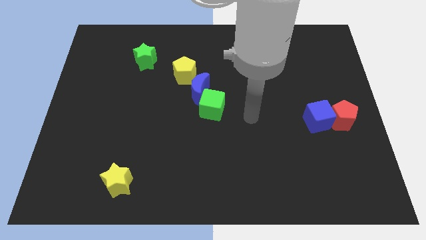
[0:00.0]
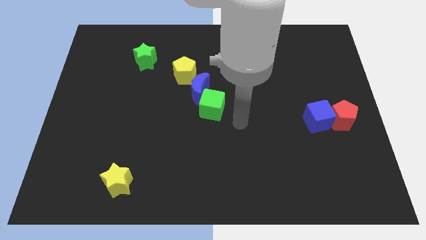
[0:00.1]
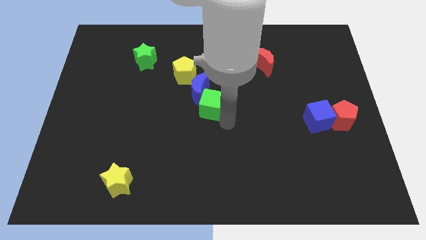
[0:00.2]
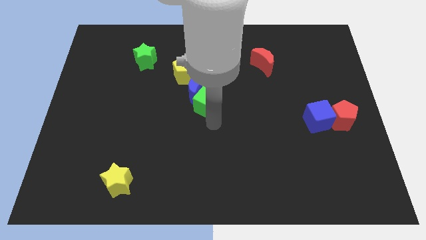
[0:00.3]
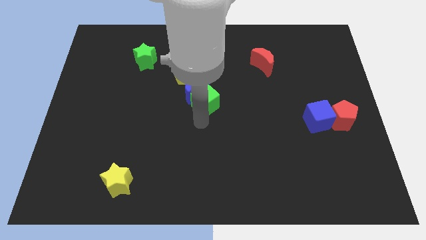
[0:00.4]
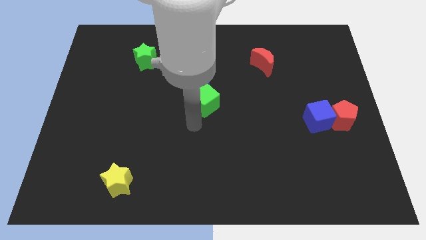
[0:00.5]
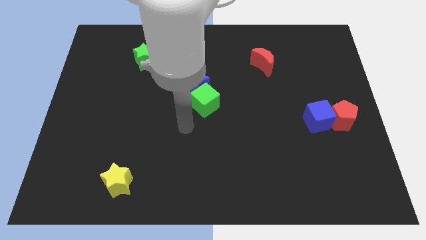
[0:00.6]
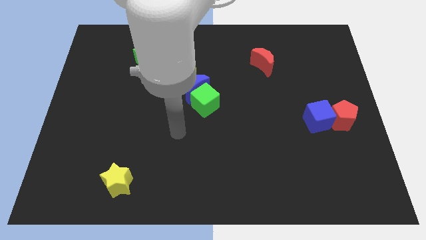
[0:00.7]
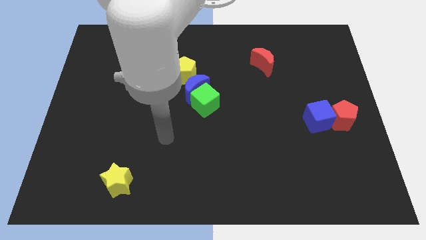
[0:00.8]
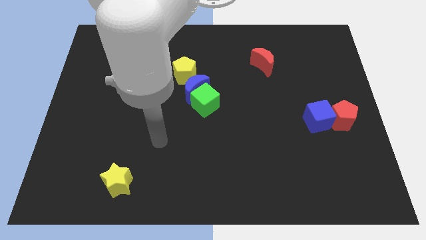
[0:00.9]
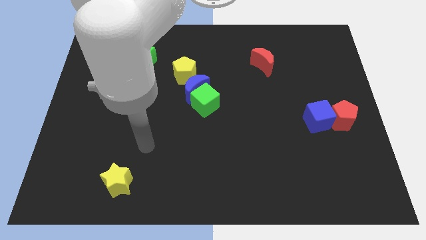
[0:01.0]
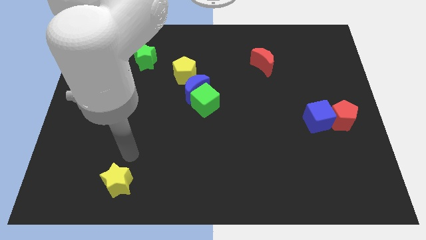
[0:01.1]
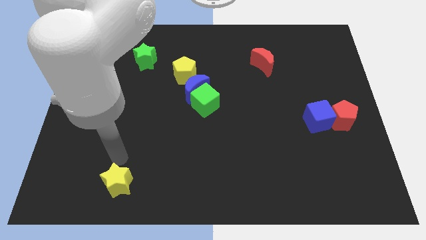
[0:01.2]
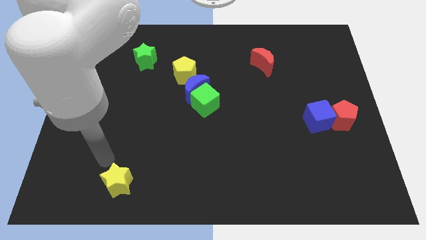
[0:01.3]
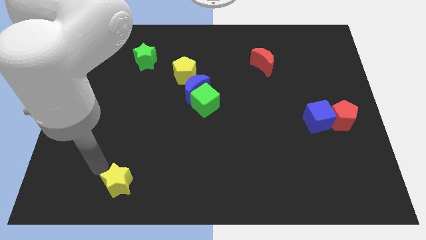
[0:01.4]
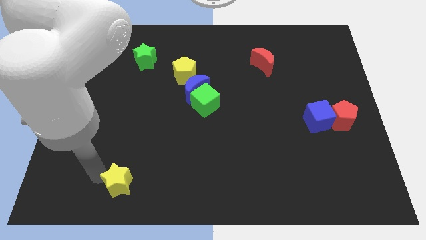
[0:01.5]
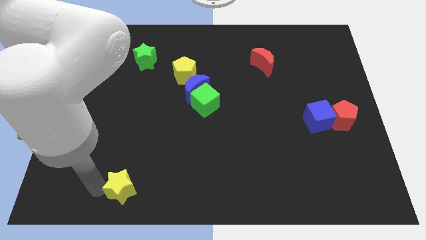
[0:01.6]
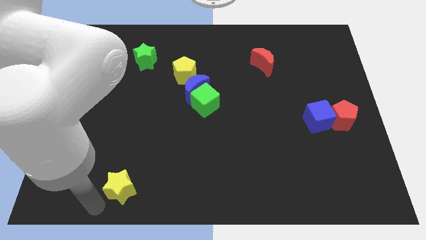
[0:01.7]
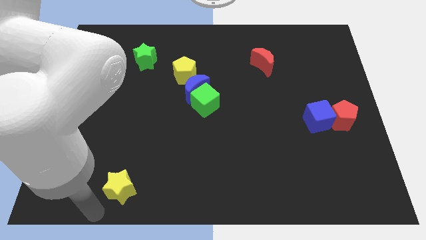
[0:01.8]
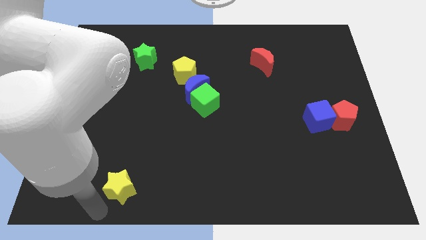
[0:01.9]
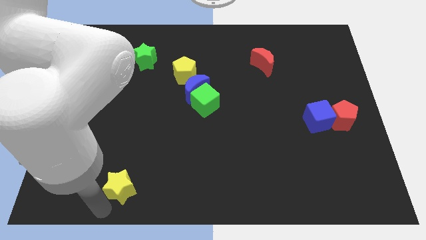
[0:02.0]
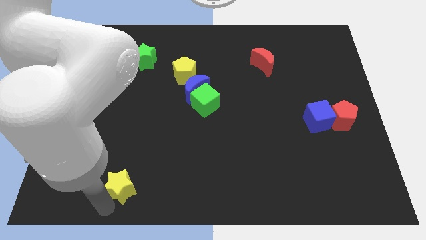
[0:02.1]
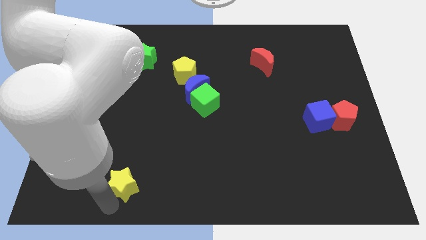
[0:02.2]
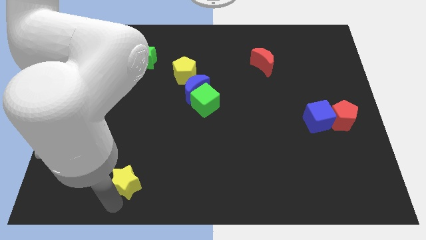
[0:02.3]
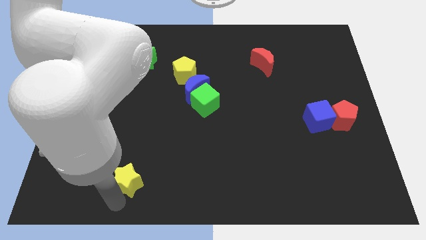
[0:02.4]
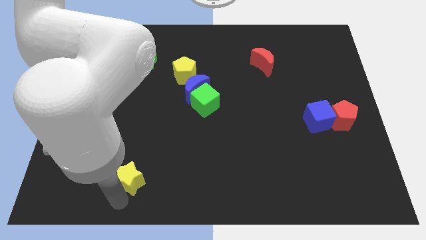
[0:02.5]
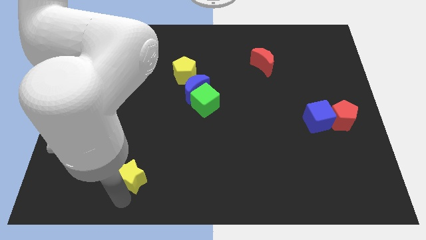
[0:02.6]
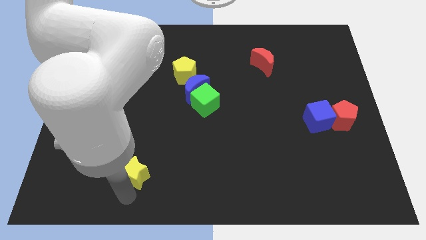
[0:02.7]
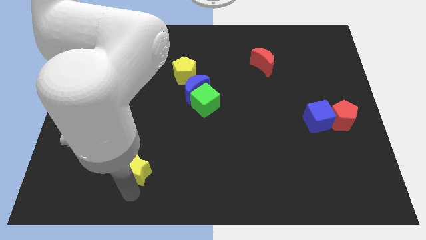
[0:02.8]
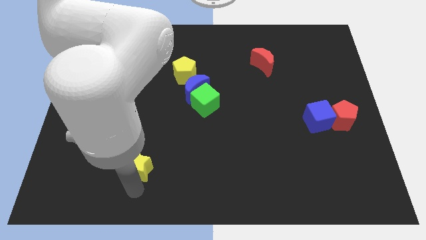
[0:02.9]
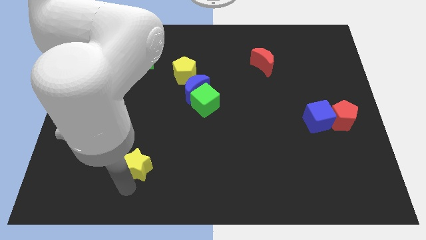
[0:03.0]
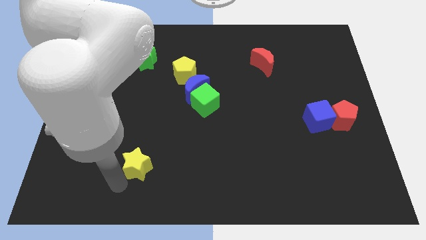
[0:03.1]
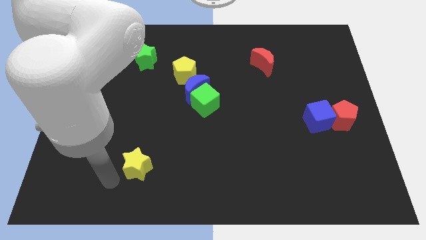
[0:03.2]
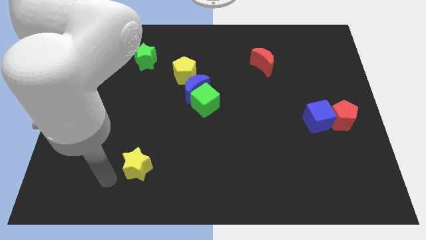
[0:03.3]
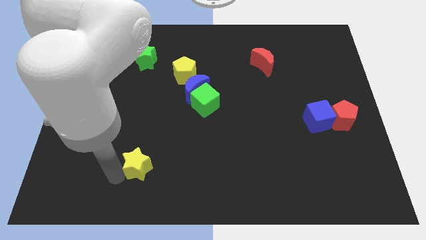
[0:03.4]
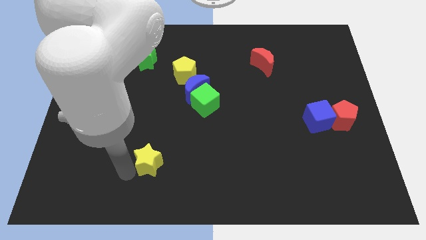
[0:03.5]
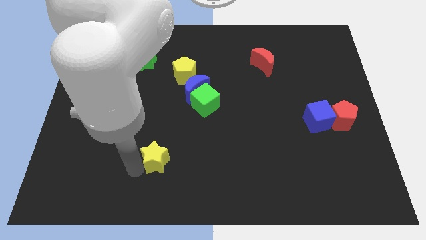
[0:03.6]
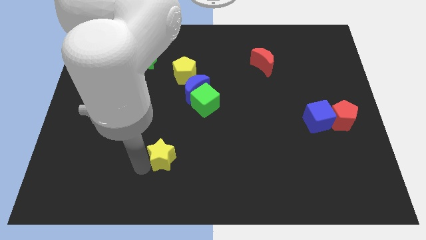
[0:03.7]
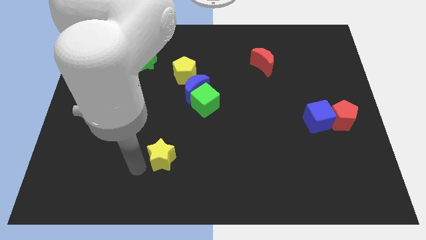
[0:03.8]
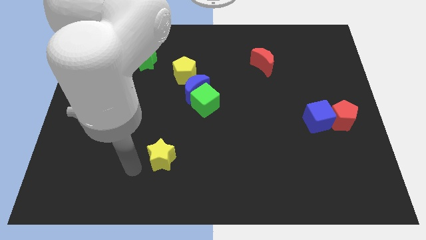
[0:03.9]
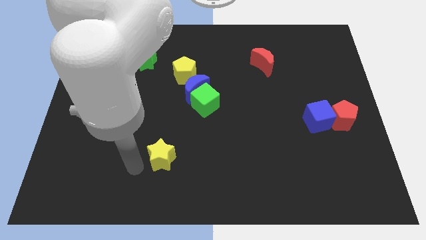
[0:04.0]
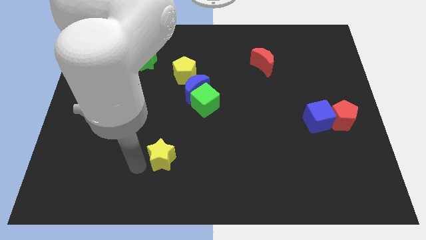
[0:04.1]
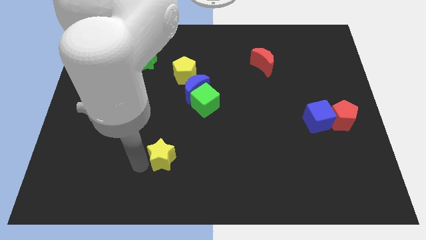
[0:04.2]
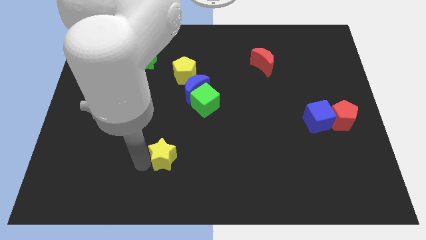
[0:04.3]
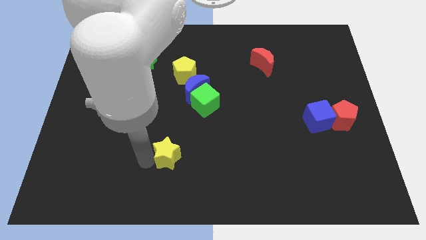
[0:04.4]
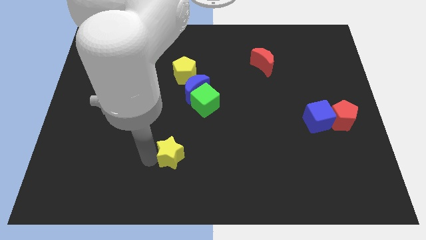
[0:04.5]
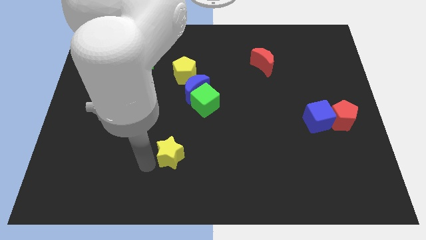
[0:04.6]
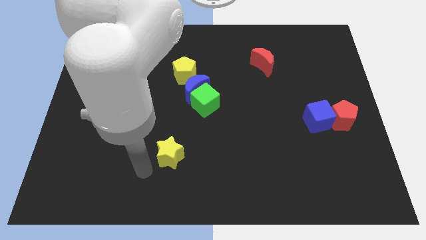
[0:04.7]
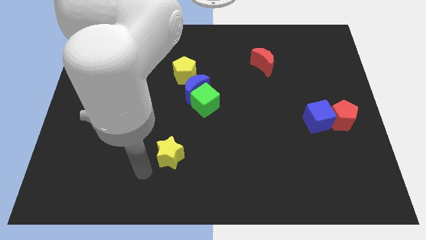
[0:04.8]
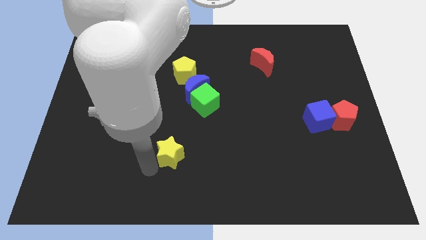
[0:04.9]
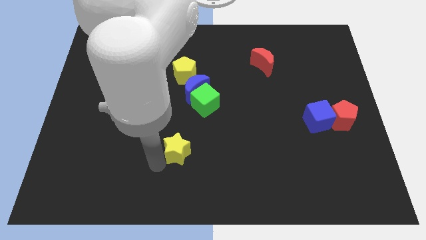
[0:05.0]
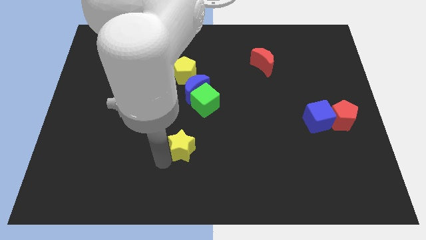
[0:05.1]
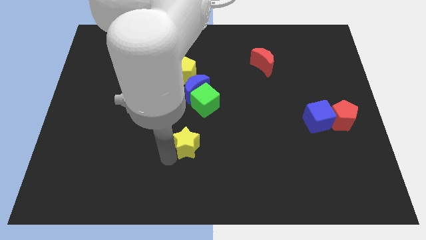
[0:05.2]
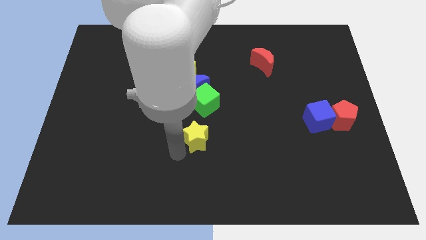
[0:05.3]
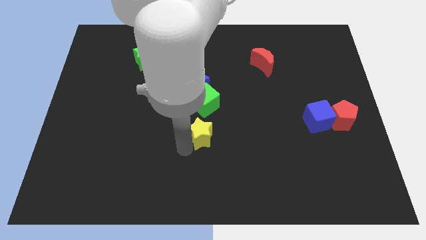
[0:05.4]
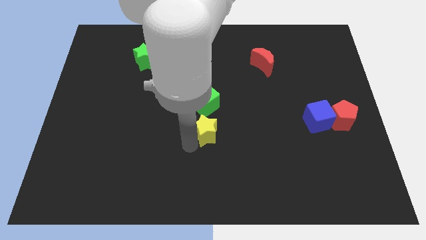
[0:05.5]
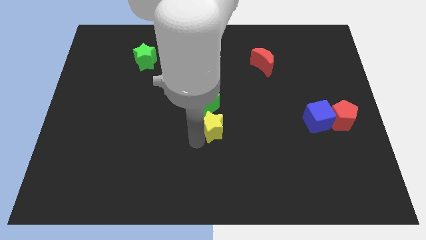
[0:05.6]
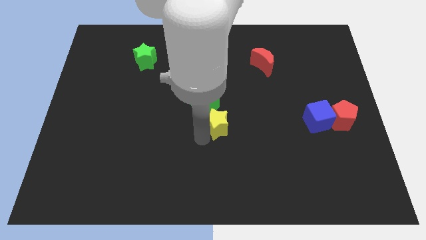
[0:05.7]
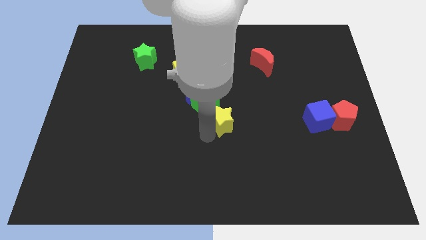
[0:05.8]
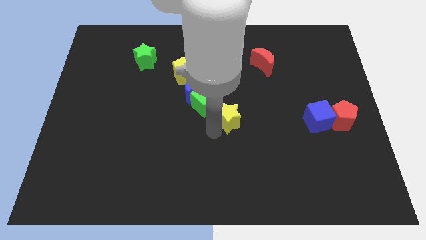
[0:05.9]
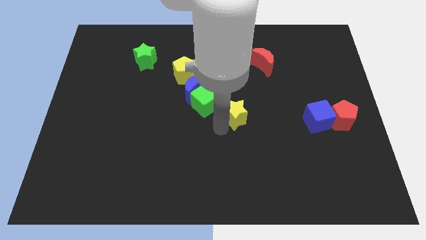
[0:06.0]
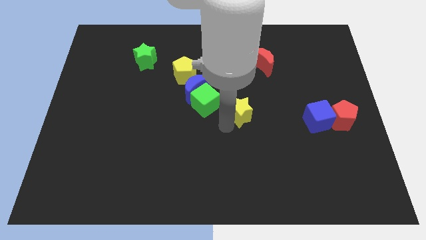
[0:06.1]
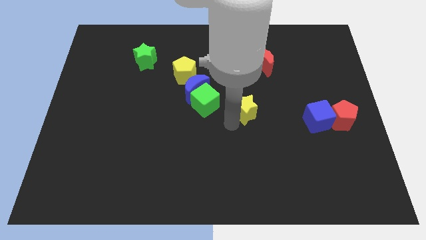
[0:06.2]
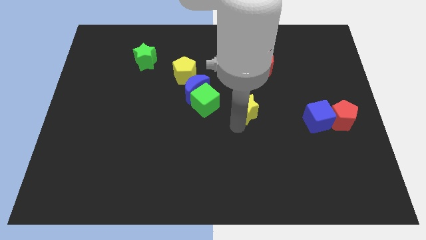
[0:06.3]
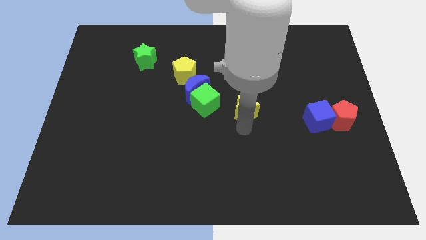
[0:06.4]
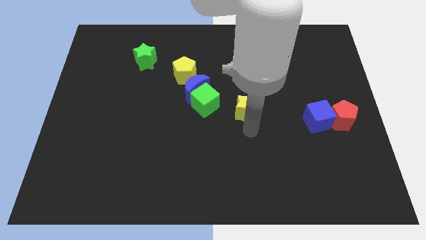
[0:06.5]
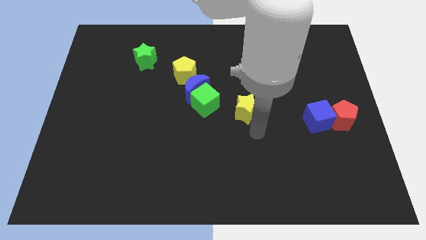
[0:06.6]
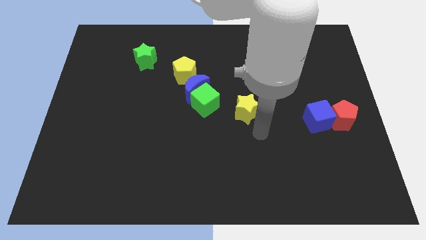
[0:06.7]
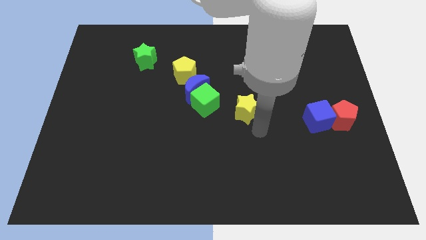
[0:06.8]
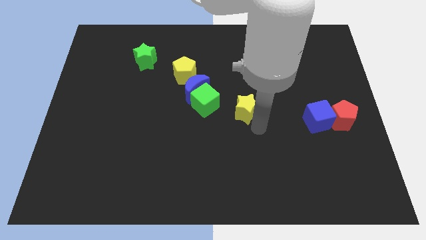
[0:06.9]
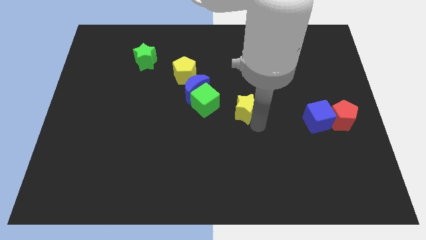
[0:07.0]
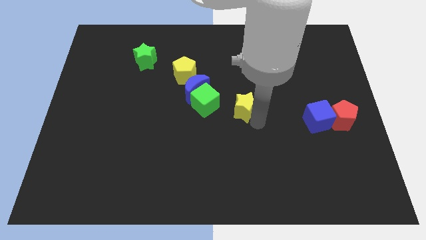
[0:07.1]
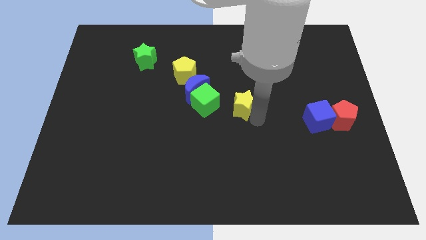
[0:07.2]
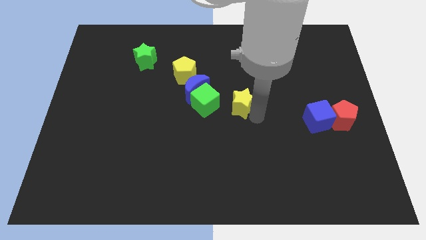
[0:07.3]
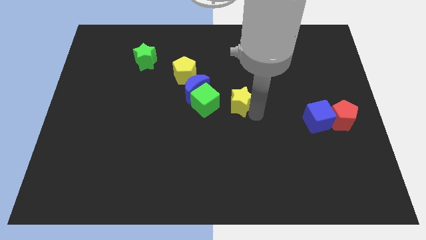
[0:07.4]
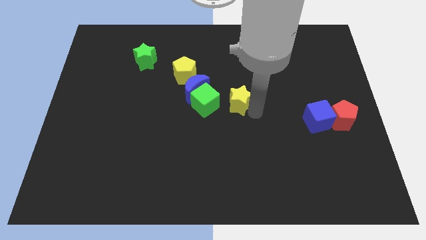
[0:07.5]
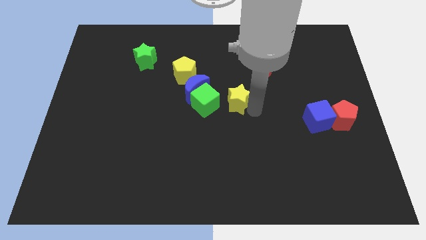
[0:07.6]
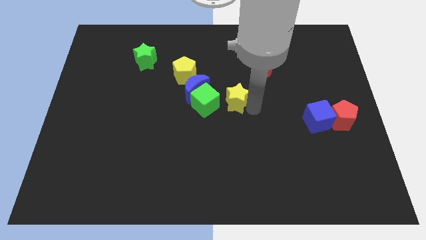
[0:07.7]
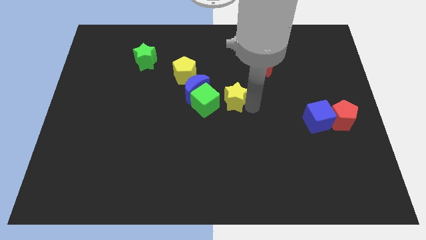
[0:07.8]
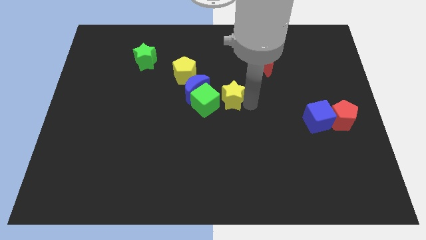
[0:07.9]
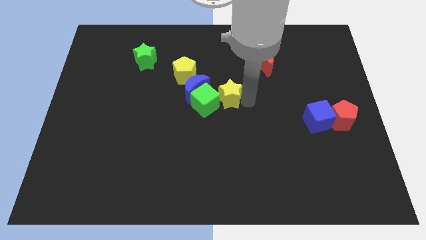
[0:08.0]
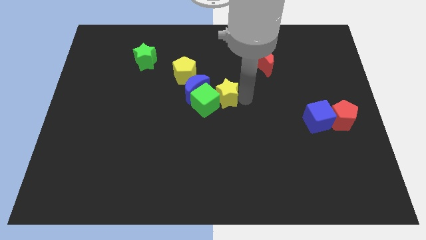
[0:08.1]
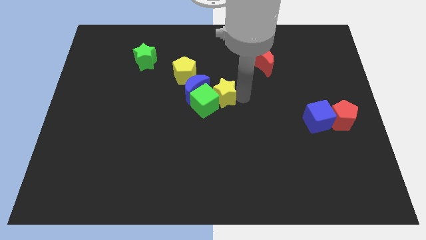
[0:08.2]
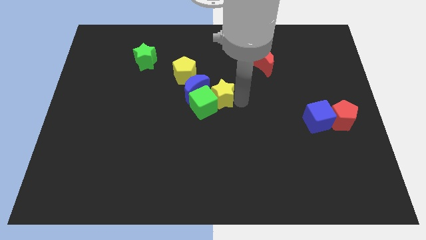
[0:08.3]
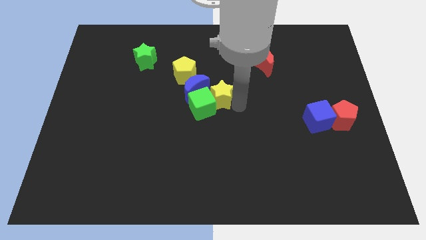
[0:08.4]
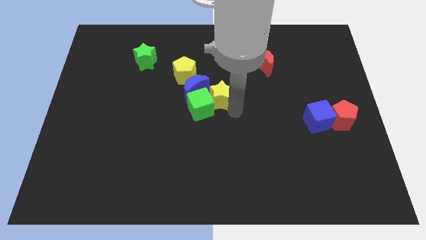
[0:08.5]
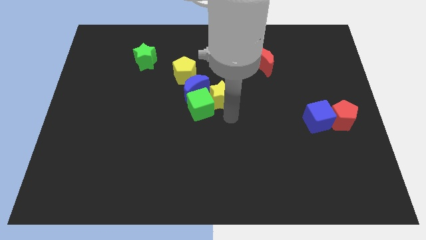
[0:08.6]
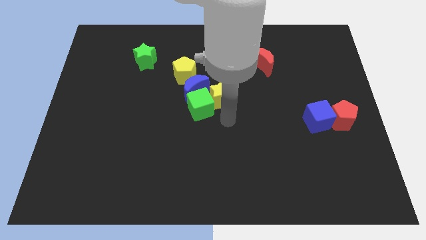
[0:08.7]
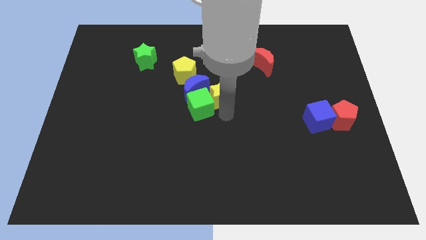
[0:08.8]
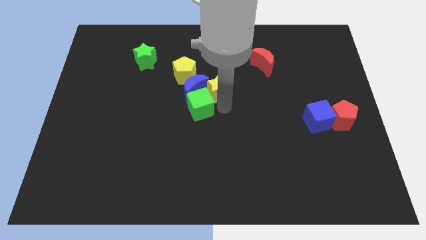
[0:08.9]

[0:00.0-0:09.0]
put the yellow star to the top right side of the blue moon
